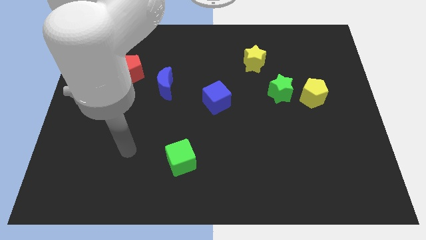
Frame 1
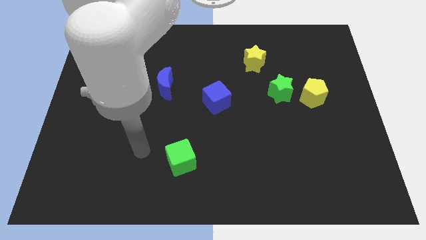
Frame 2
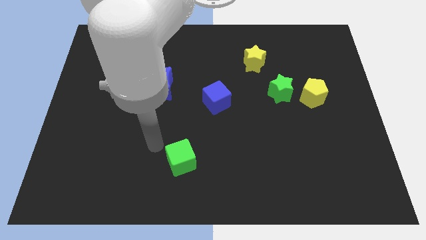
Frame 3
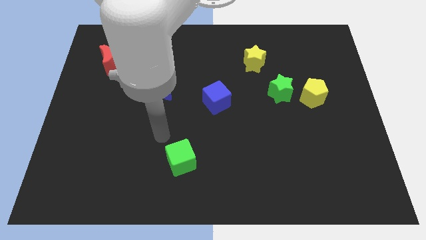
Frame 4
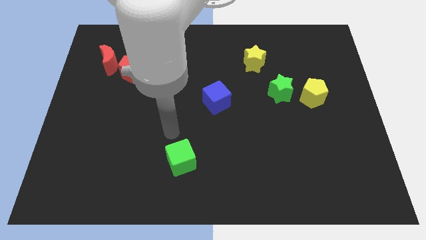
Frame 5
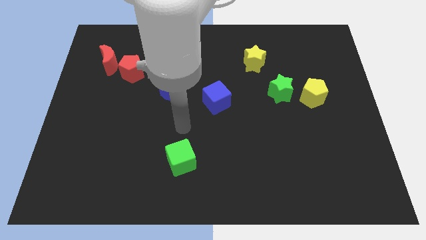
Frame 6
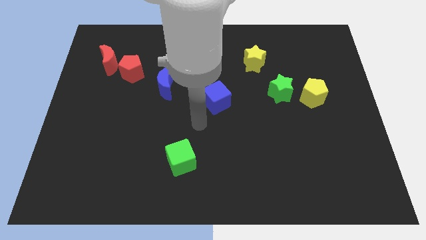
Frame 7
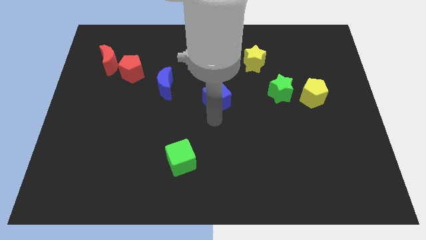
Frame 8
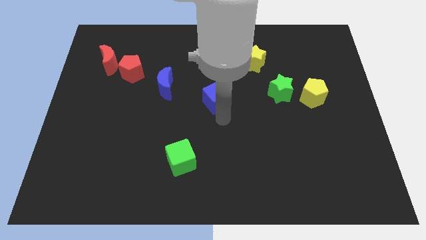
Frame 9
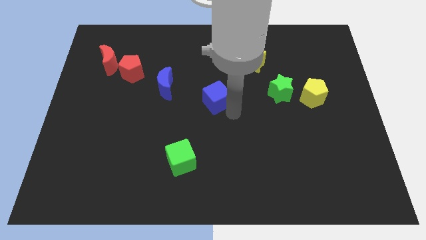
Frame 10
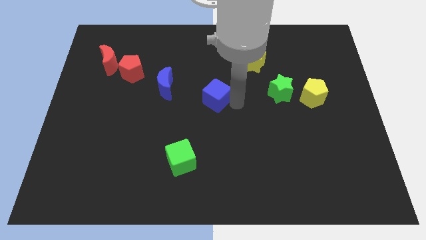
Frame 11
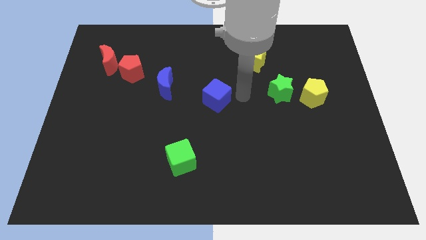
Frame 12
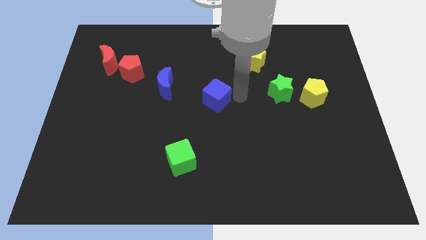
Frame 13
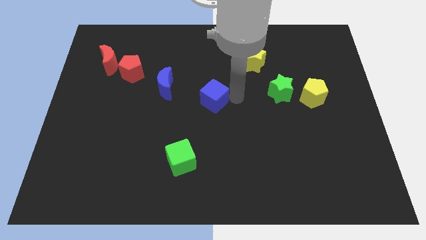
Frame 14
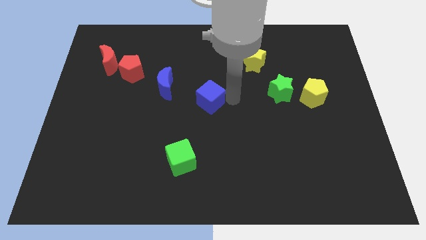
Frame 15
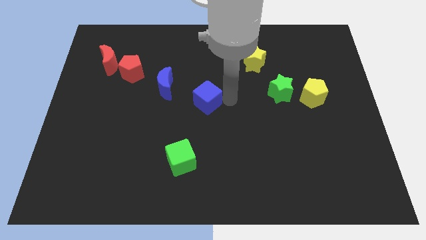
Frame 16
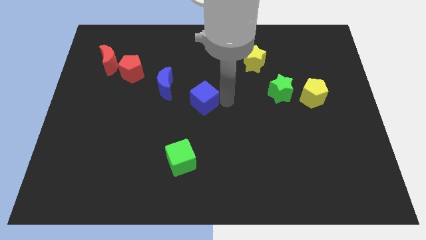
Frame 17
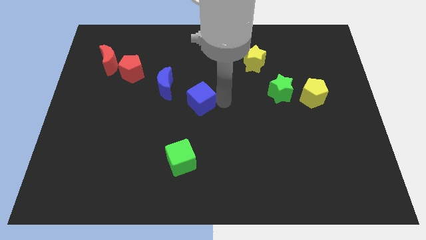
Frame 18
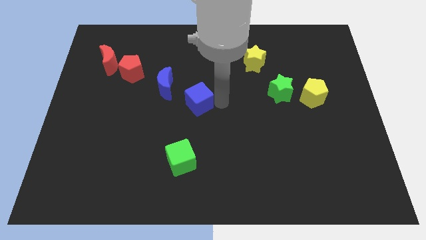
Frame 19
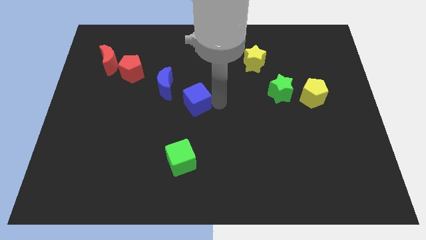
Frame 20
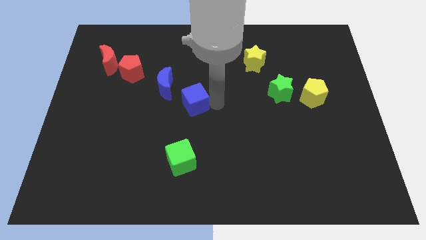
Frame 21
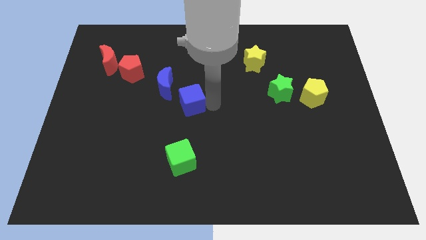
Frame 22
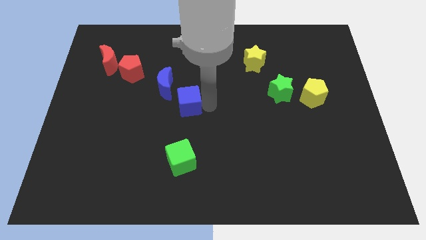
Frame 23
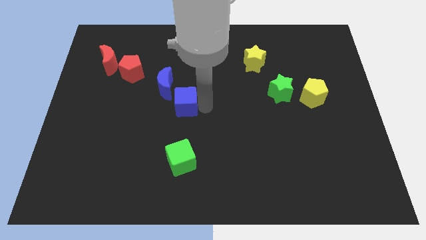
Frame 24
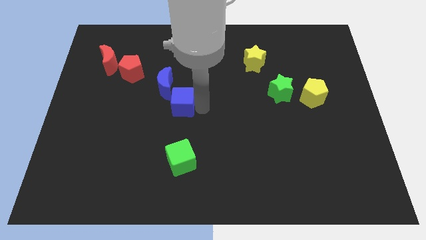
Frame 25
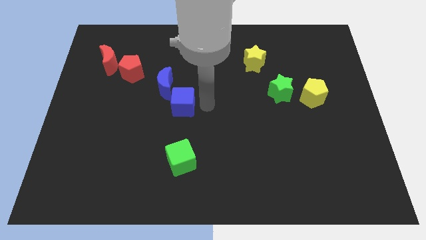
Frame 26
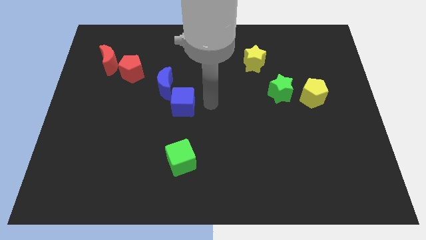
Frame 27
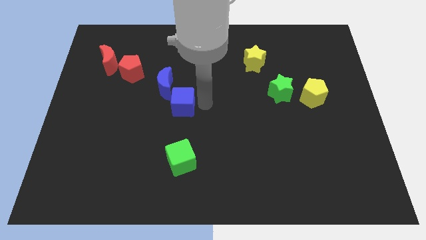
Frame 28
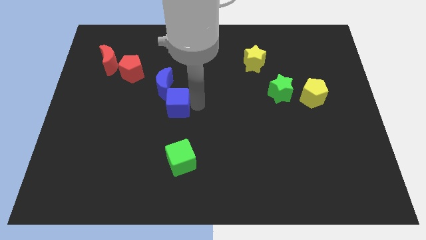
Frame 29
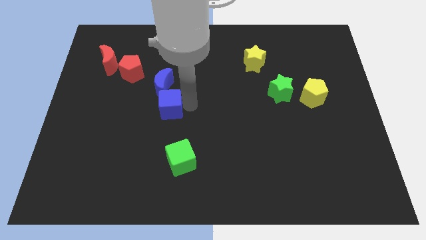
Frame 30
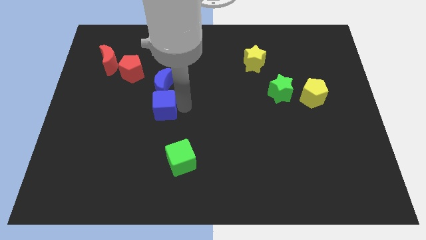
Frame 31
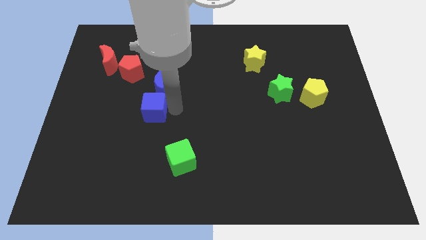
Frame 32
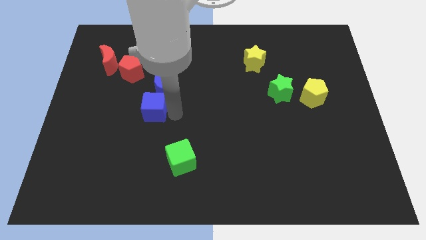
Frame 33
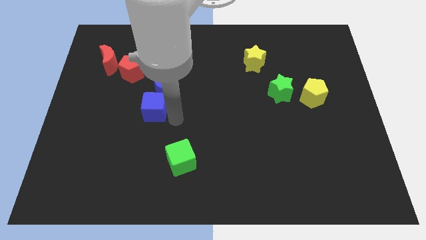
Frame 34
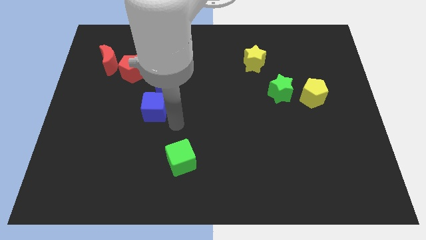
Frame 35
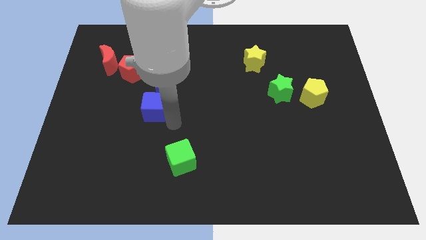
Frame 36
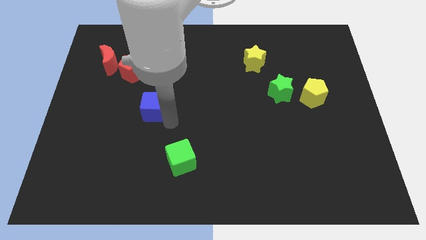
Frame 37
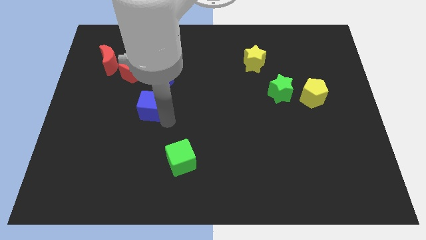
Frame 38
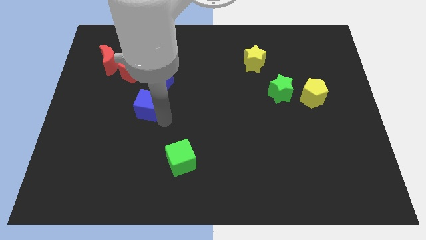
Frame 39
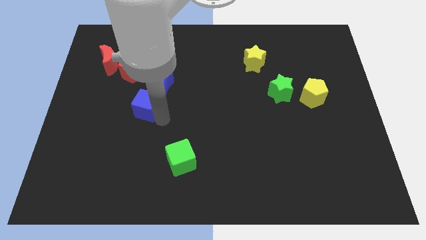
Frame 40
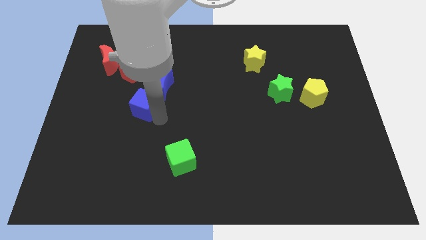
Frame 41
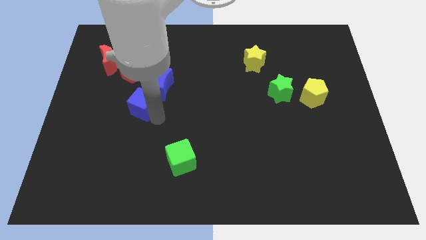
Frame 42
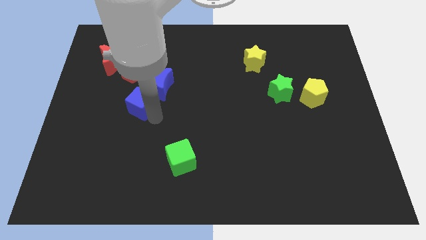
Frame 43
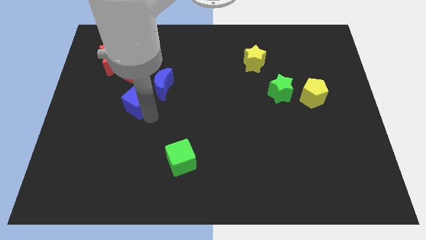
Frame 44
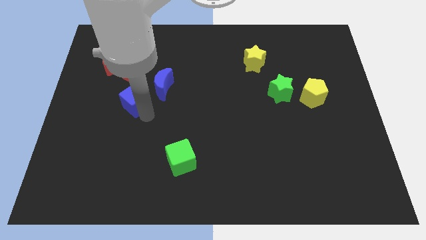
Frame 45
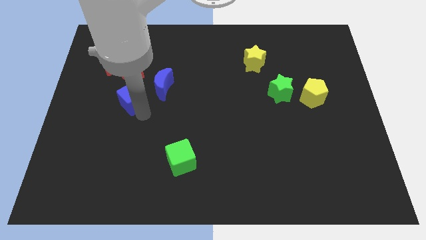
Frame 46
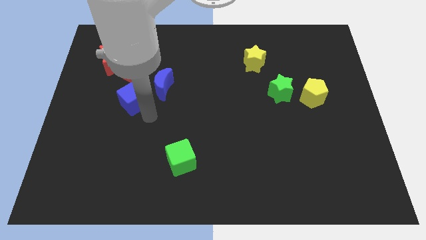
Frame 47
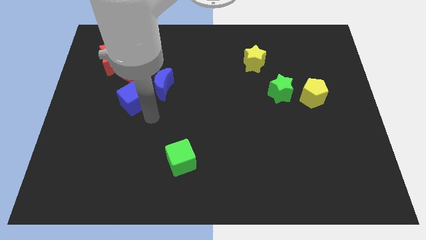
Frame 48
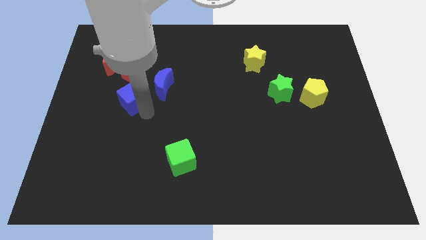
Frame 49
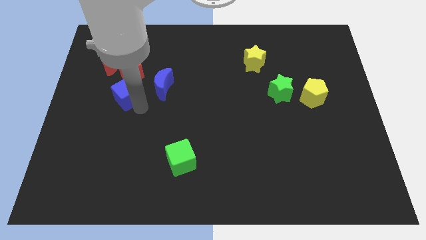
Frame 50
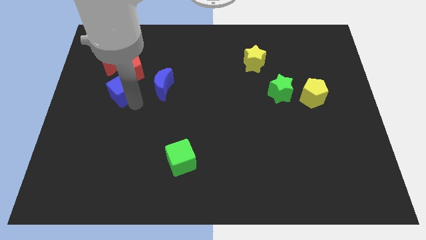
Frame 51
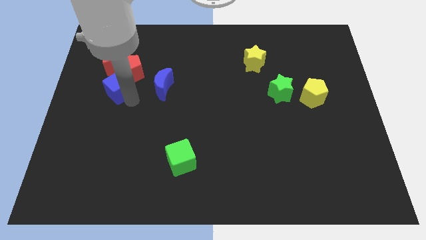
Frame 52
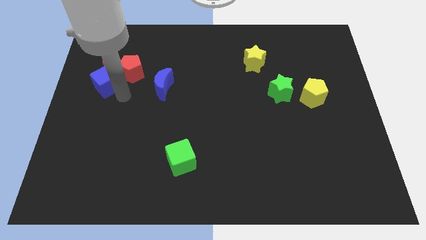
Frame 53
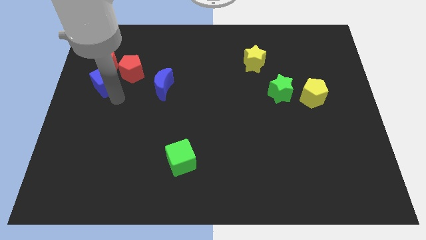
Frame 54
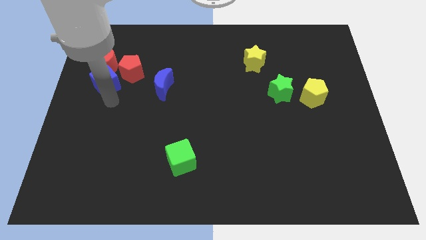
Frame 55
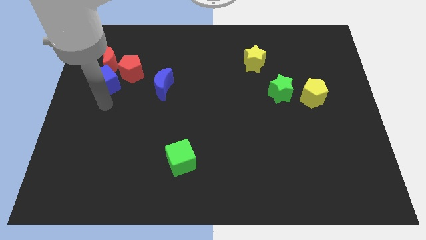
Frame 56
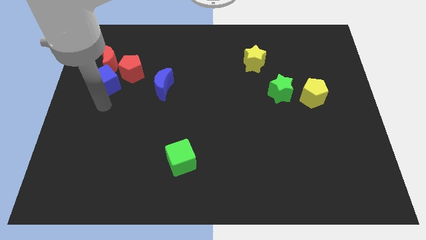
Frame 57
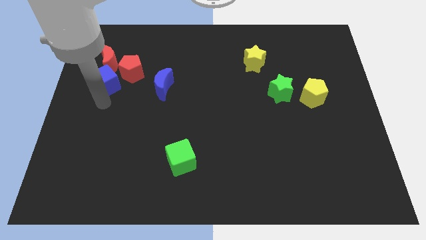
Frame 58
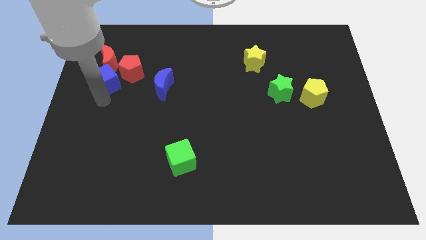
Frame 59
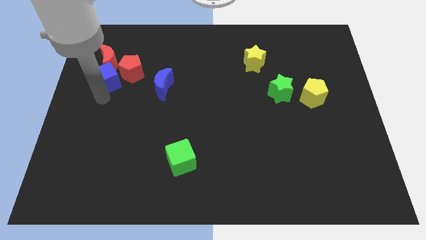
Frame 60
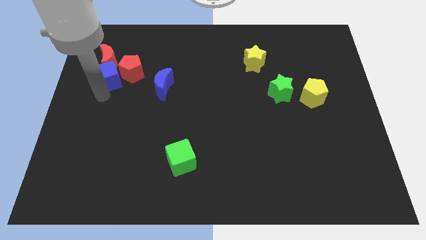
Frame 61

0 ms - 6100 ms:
move the blue cube to the red moon

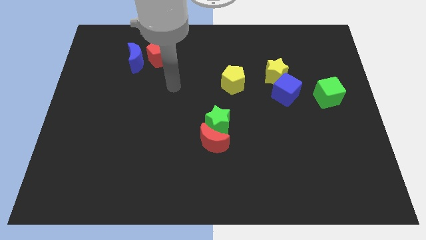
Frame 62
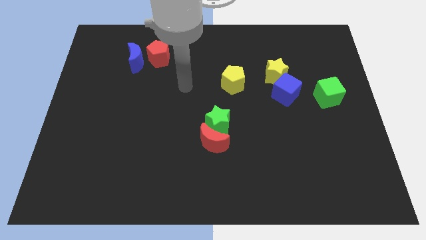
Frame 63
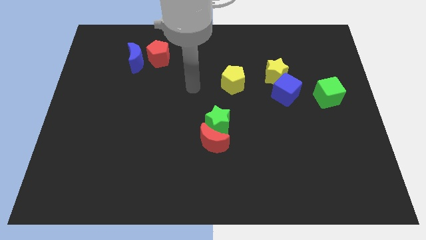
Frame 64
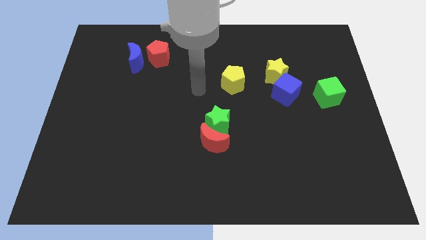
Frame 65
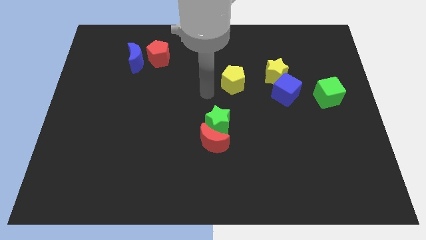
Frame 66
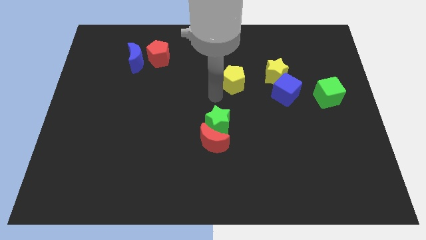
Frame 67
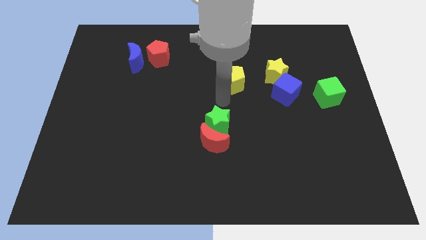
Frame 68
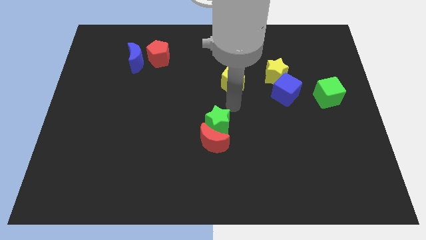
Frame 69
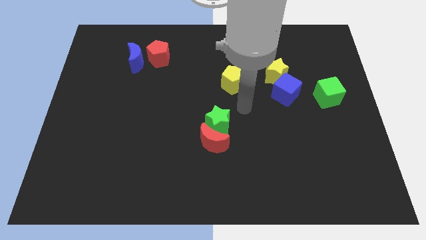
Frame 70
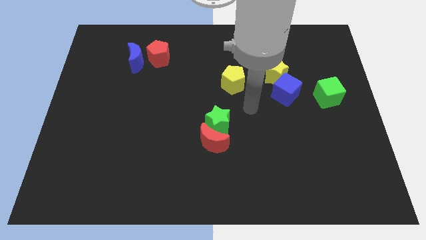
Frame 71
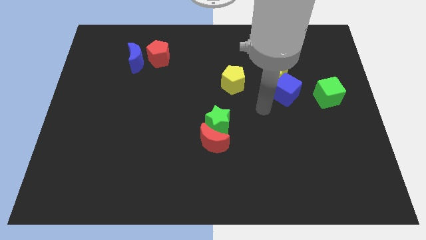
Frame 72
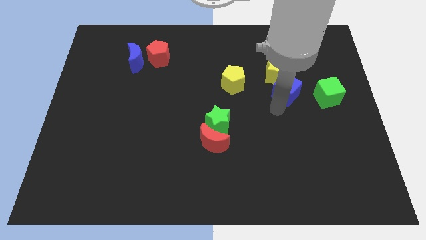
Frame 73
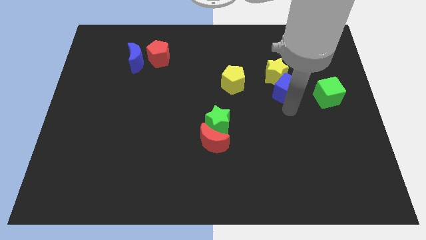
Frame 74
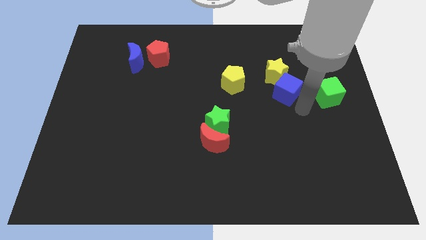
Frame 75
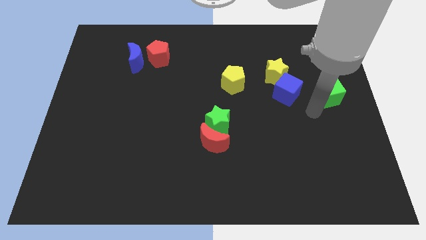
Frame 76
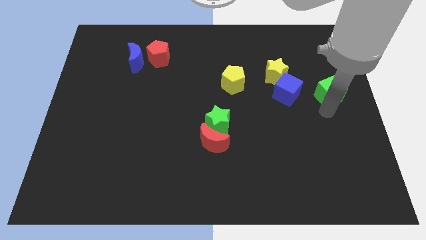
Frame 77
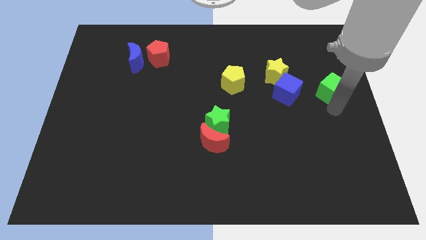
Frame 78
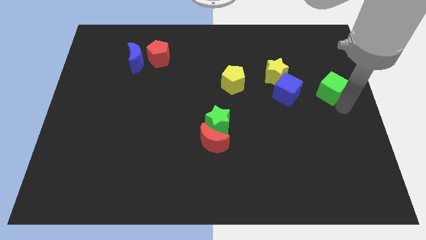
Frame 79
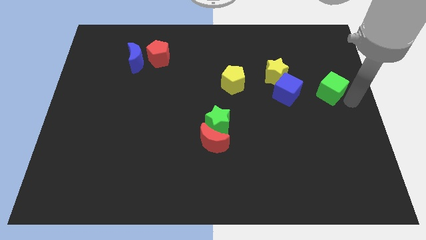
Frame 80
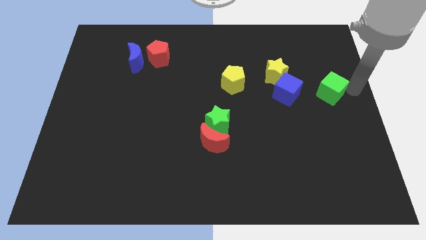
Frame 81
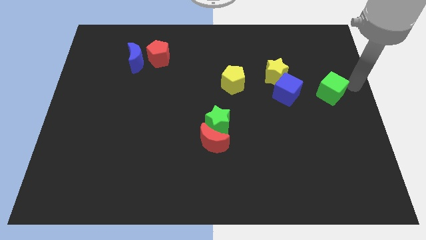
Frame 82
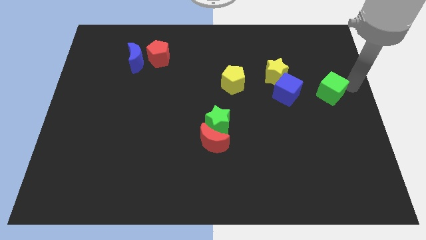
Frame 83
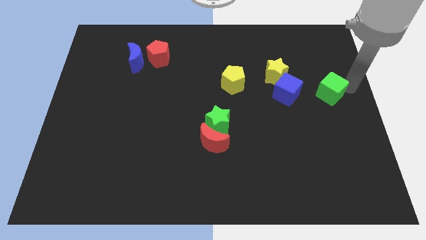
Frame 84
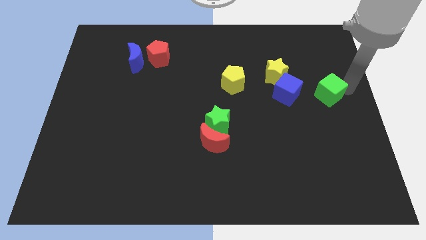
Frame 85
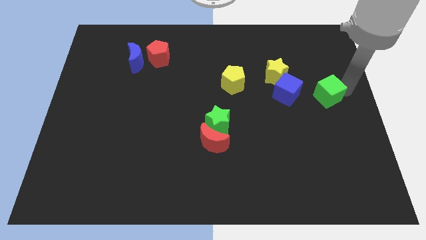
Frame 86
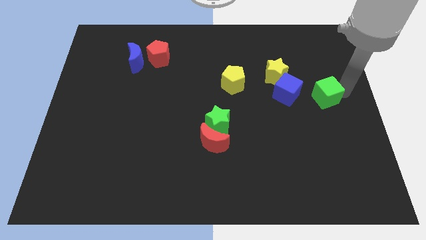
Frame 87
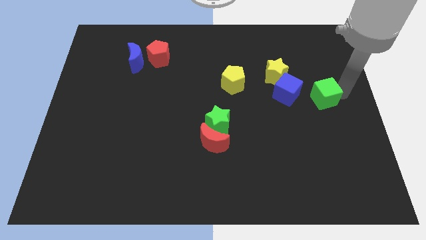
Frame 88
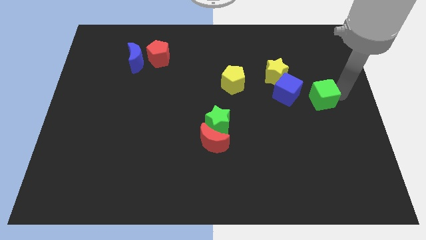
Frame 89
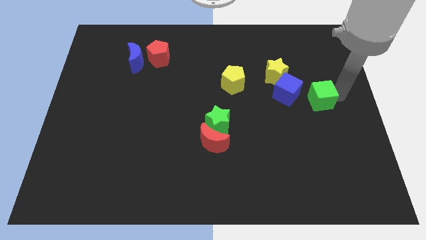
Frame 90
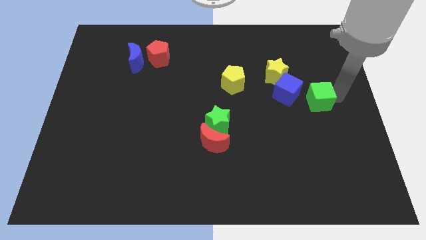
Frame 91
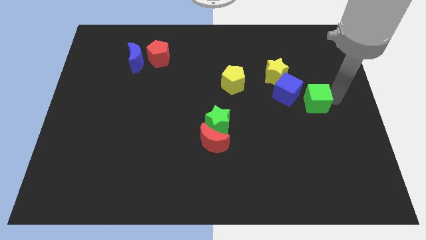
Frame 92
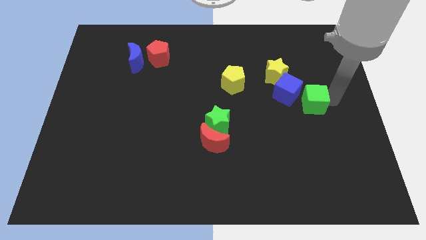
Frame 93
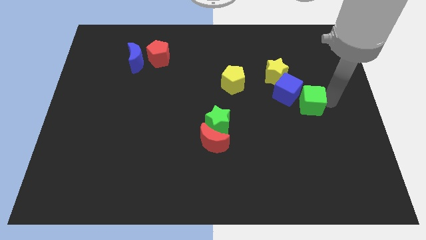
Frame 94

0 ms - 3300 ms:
move the green cube towards the blue cube
